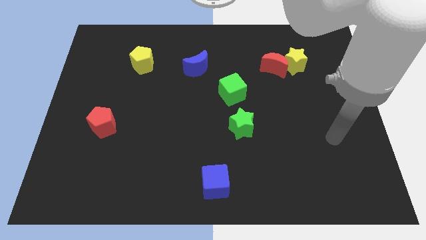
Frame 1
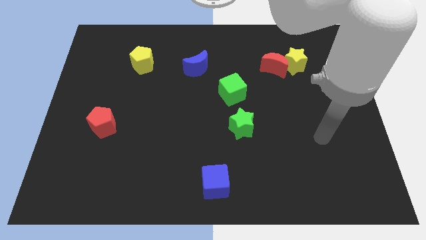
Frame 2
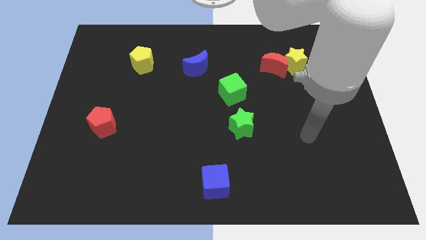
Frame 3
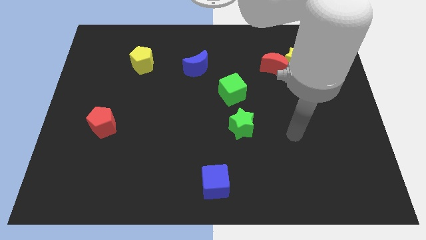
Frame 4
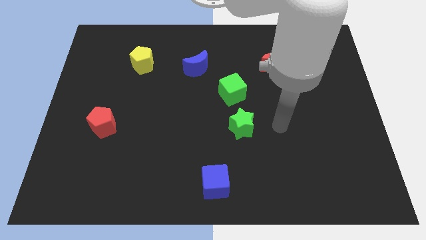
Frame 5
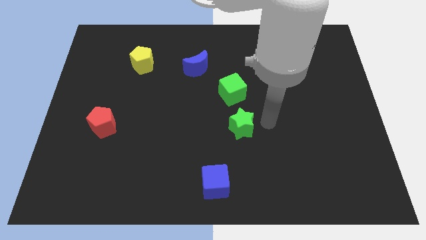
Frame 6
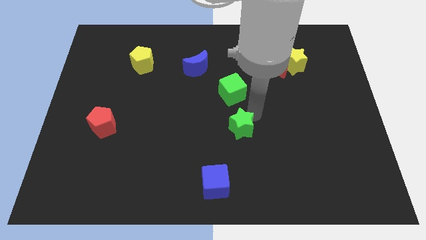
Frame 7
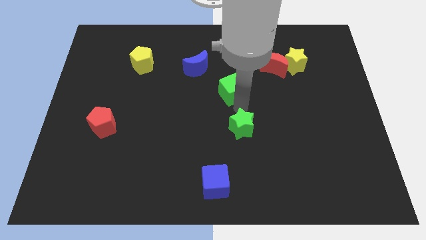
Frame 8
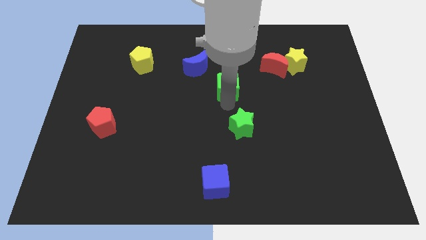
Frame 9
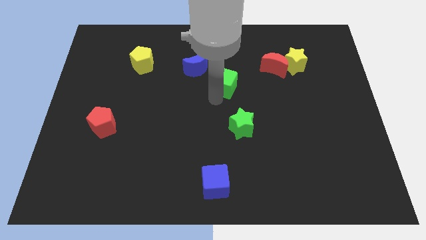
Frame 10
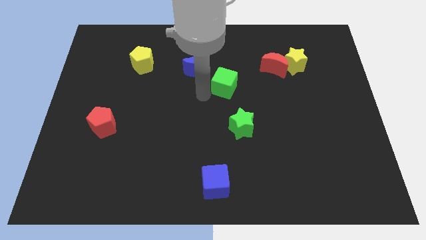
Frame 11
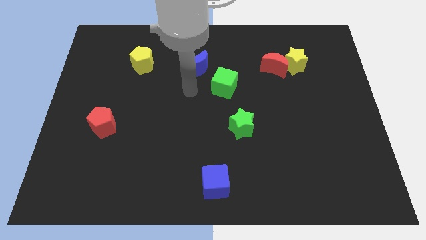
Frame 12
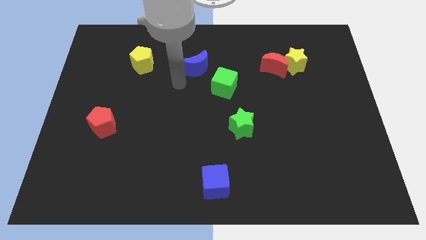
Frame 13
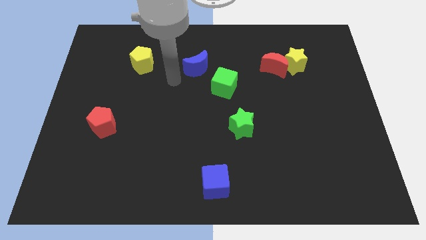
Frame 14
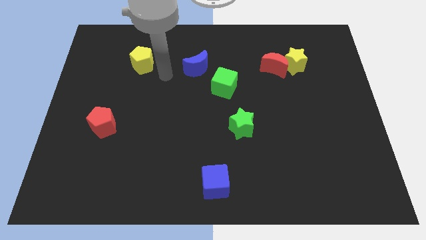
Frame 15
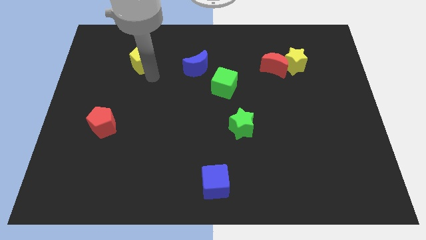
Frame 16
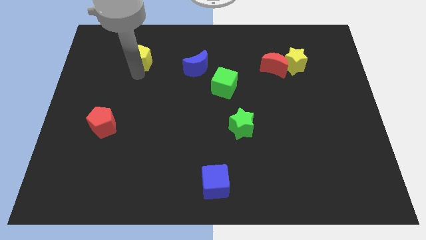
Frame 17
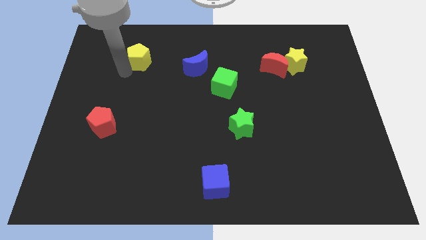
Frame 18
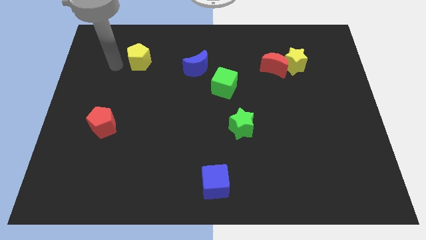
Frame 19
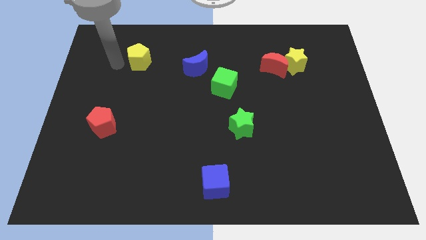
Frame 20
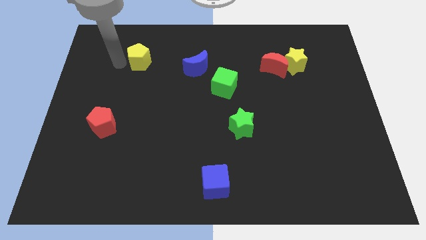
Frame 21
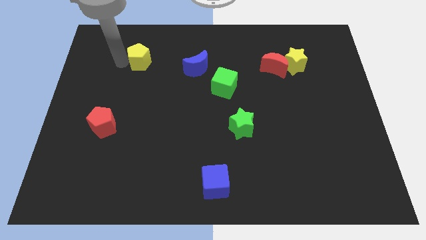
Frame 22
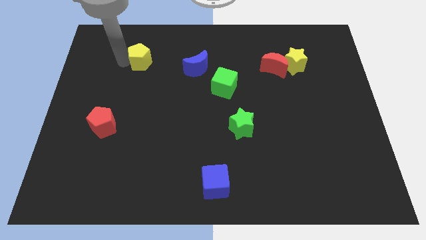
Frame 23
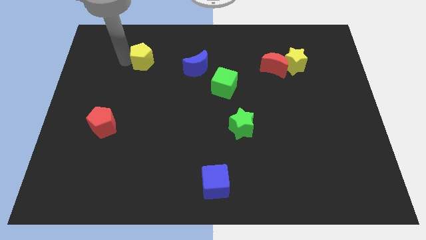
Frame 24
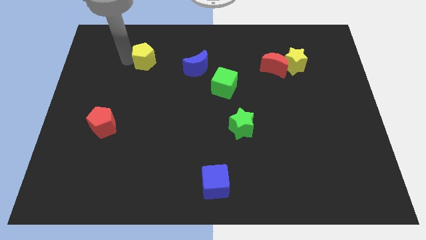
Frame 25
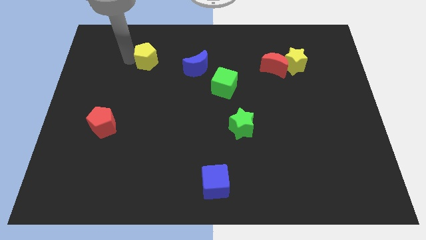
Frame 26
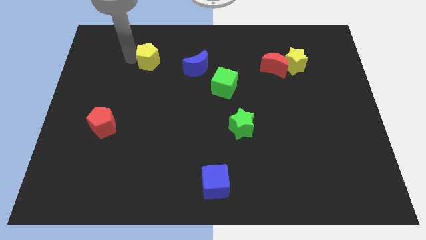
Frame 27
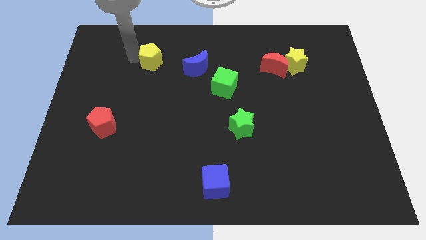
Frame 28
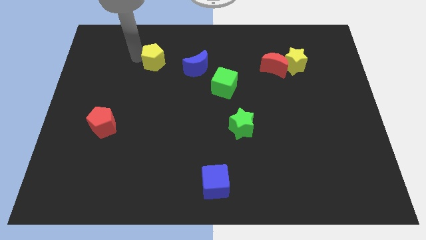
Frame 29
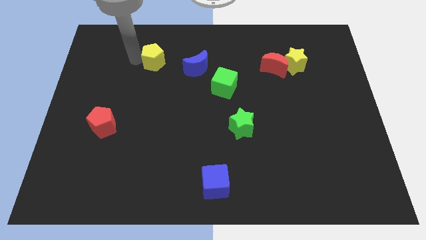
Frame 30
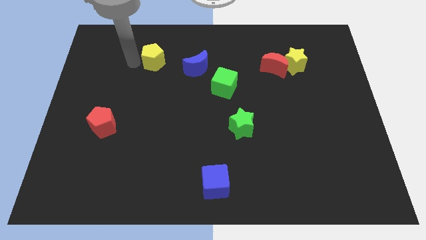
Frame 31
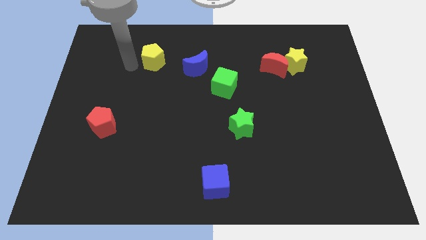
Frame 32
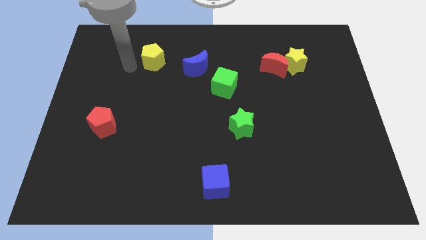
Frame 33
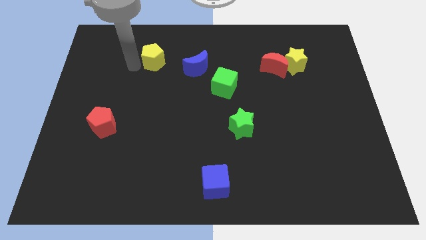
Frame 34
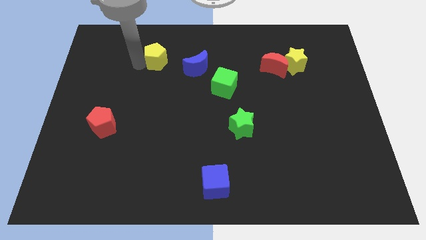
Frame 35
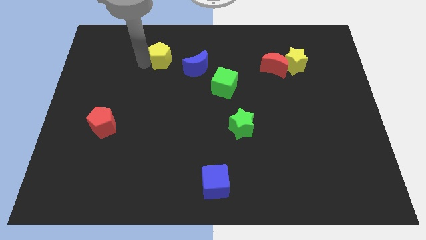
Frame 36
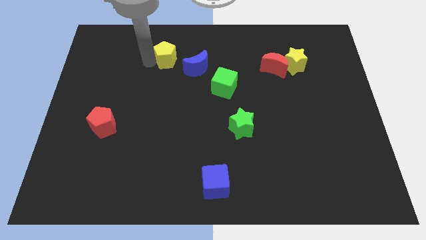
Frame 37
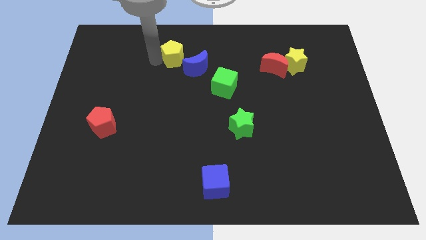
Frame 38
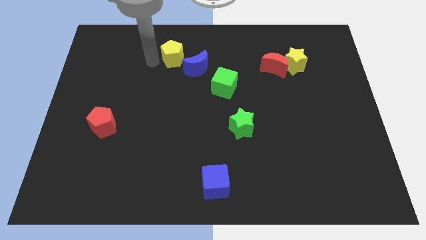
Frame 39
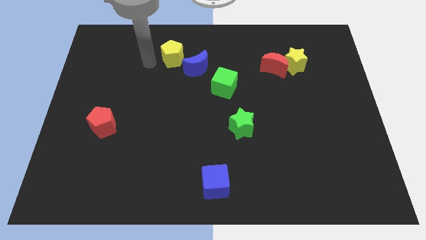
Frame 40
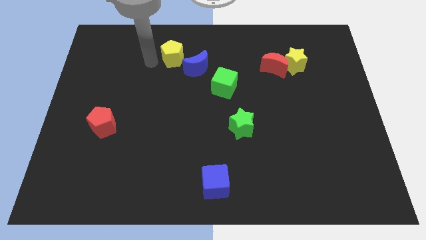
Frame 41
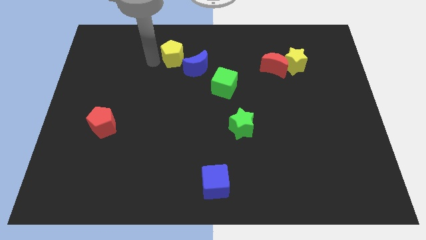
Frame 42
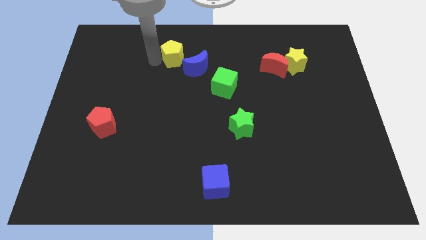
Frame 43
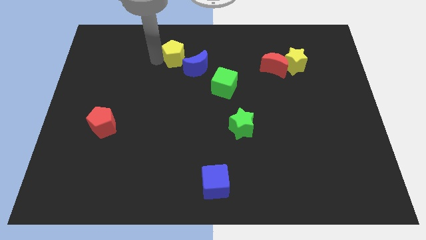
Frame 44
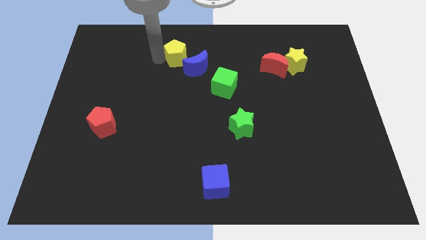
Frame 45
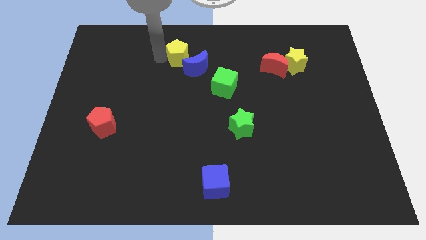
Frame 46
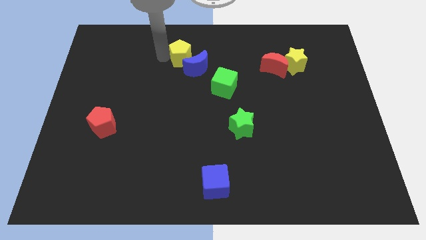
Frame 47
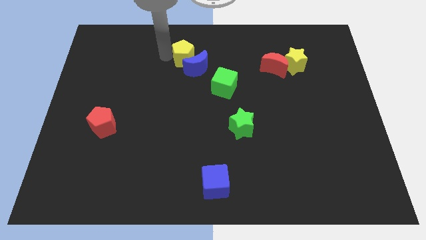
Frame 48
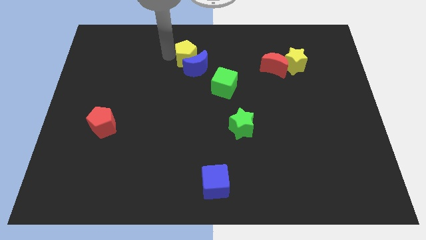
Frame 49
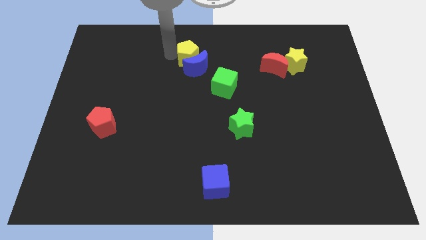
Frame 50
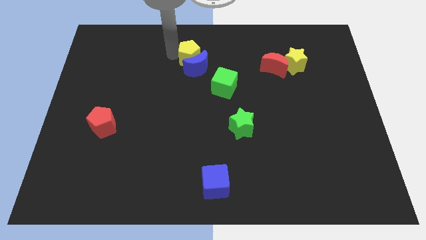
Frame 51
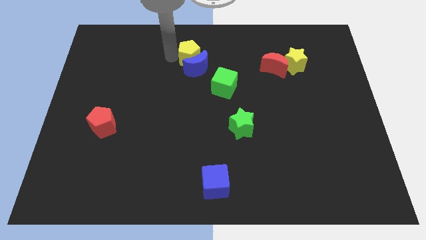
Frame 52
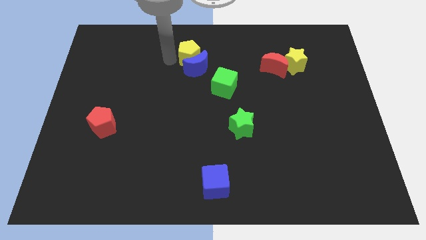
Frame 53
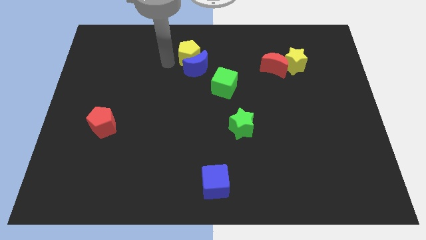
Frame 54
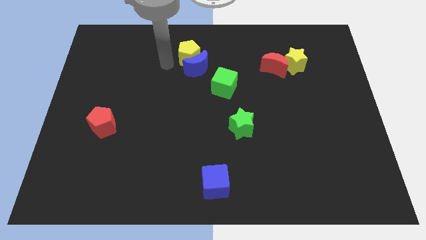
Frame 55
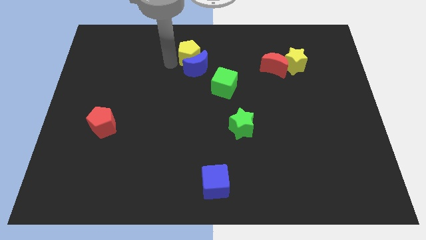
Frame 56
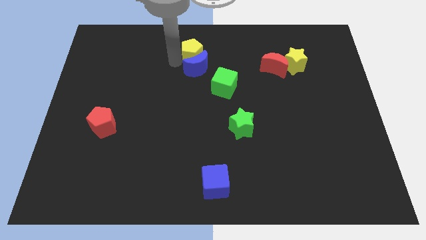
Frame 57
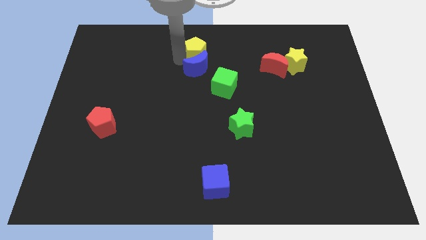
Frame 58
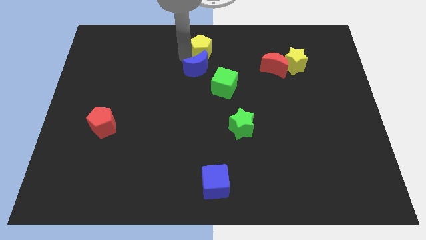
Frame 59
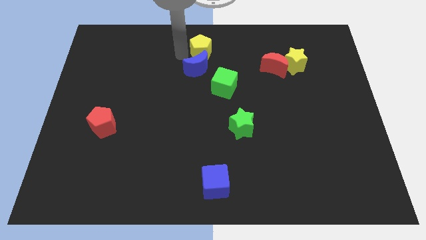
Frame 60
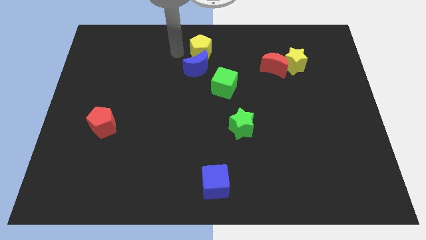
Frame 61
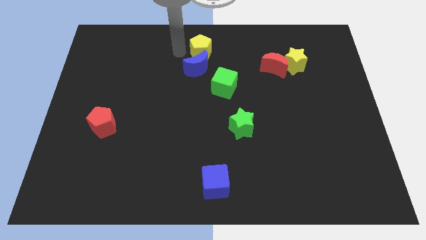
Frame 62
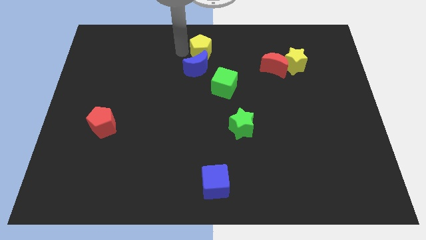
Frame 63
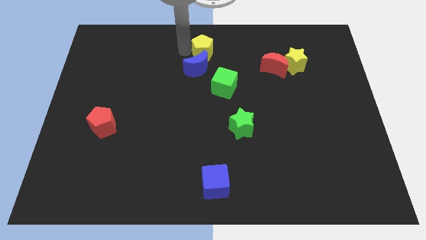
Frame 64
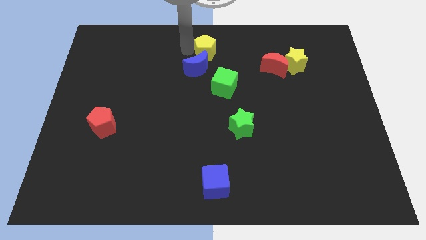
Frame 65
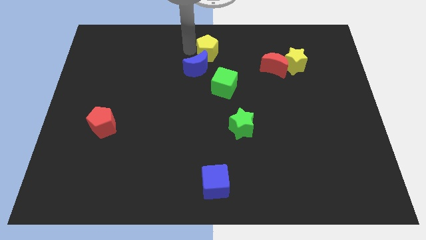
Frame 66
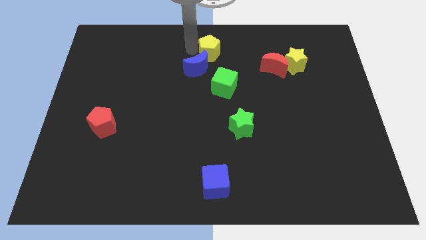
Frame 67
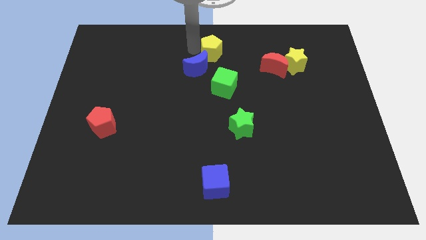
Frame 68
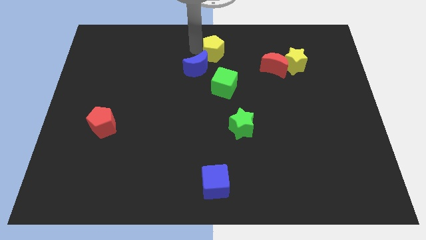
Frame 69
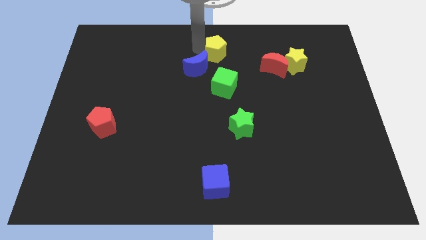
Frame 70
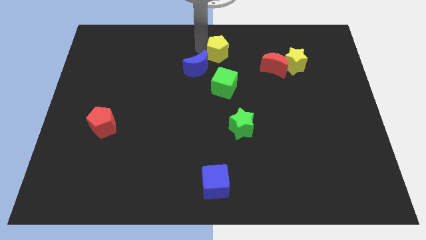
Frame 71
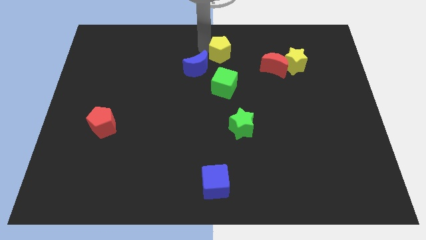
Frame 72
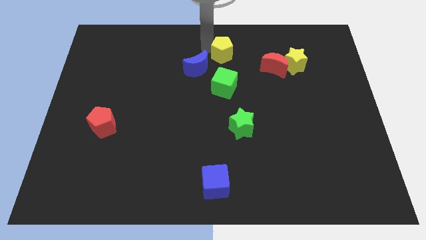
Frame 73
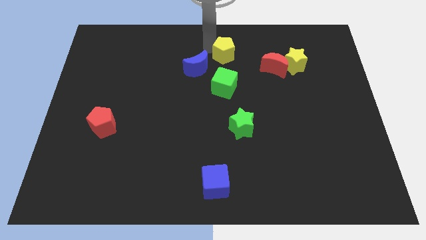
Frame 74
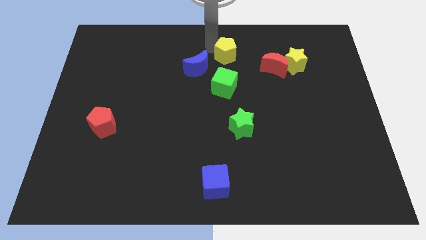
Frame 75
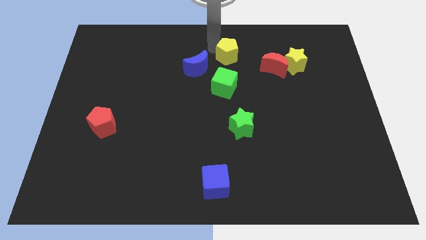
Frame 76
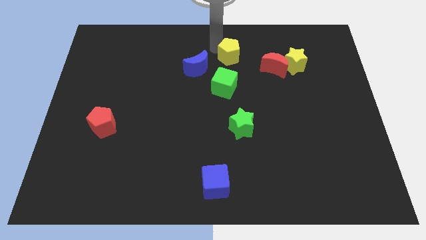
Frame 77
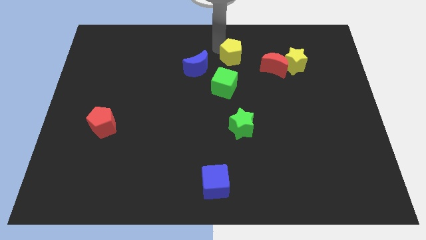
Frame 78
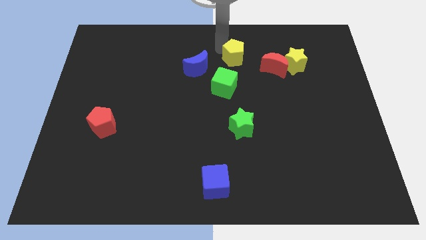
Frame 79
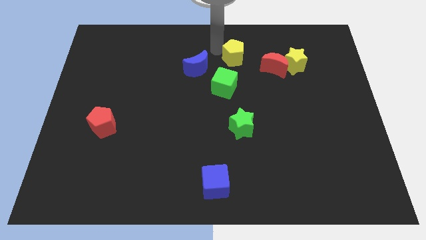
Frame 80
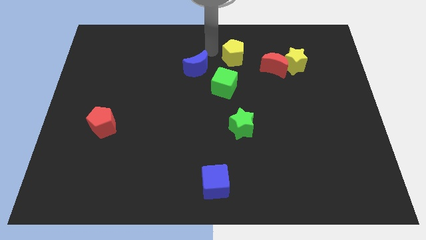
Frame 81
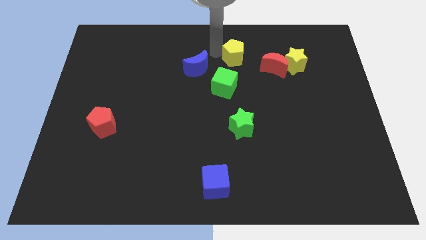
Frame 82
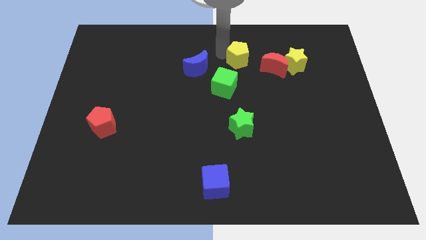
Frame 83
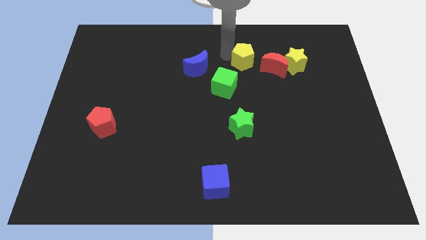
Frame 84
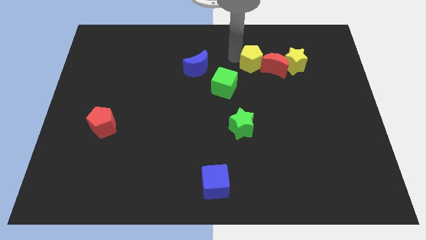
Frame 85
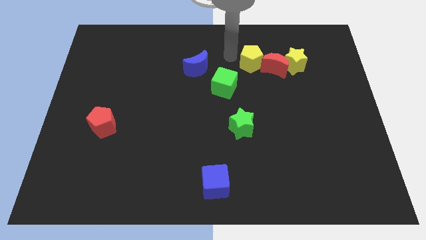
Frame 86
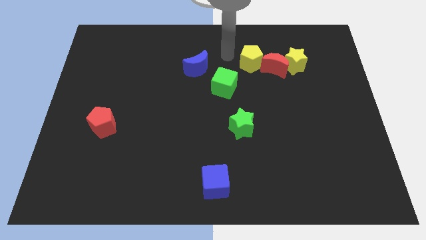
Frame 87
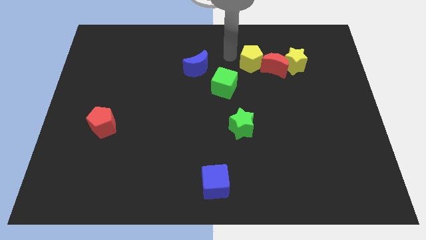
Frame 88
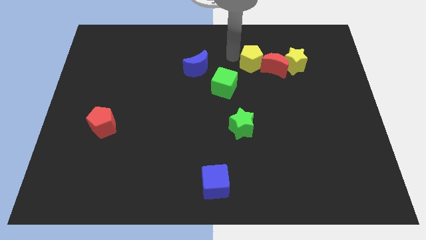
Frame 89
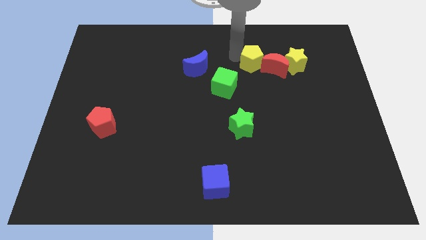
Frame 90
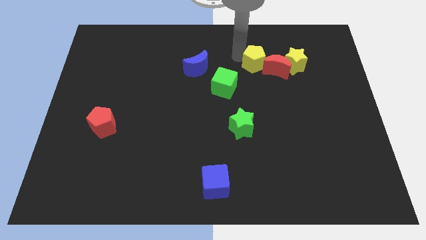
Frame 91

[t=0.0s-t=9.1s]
slide the yellow pentagon towards the red moon
